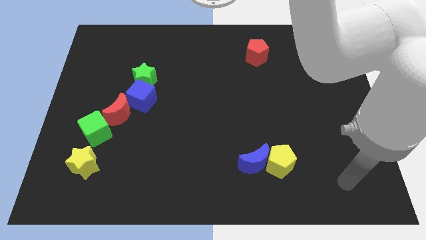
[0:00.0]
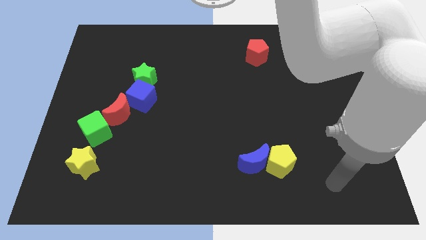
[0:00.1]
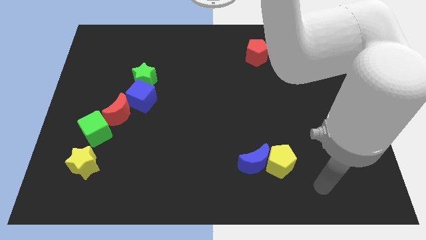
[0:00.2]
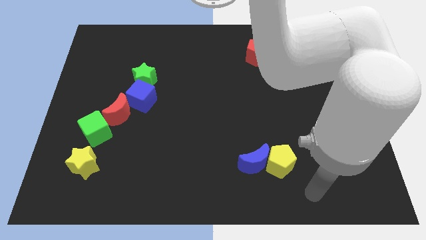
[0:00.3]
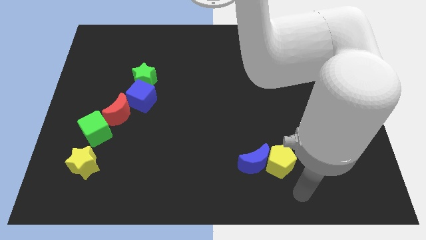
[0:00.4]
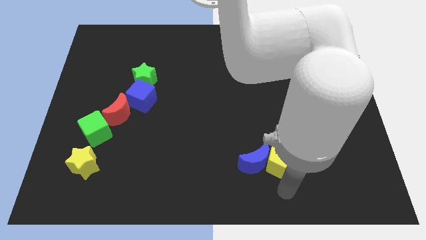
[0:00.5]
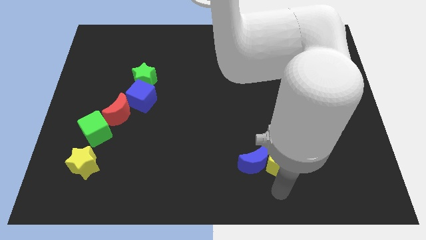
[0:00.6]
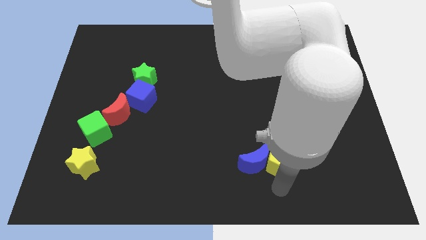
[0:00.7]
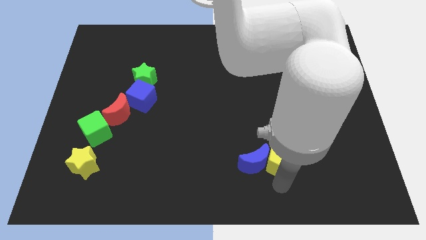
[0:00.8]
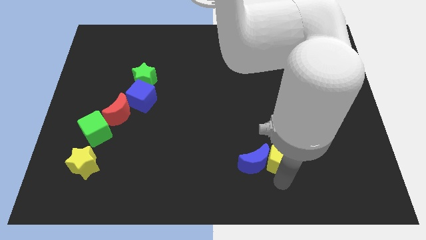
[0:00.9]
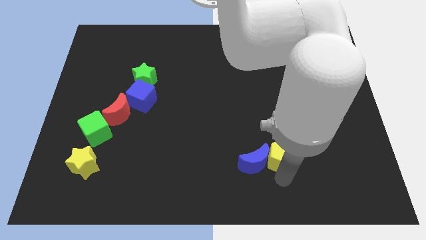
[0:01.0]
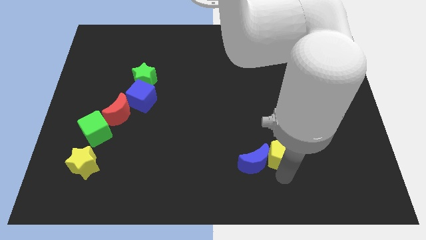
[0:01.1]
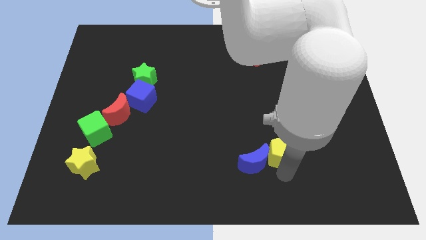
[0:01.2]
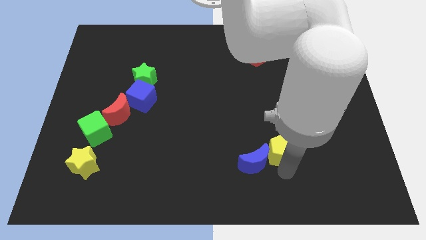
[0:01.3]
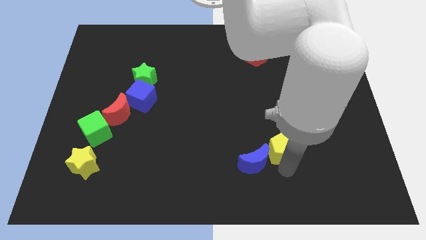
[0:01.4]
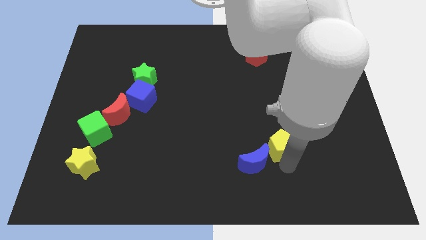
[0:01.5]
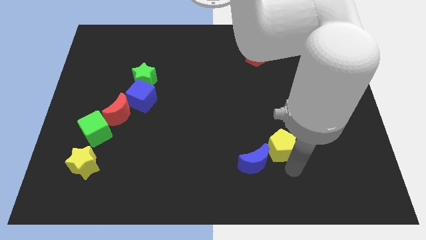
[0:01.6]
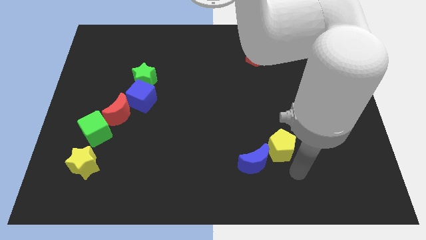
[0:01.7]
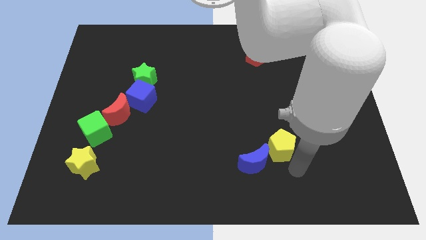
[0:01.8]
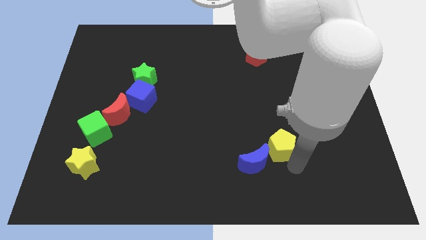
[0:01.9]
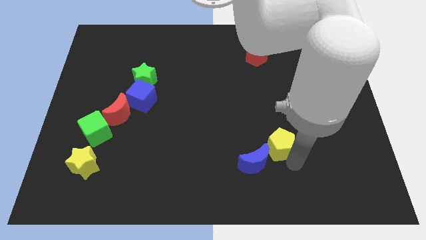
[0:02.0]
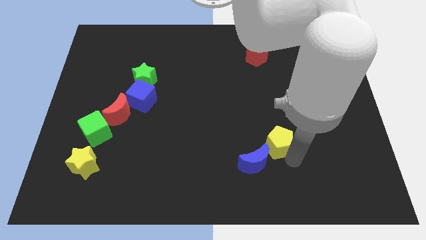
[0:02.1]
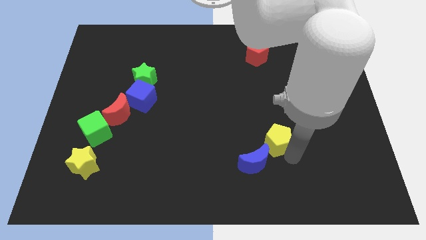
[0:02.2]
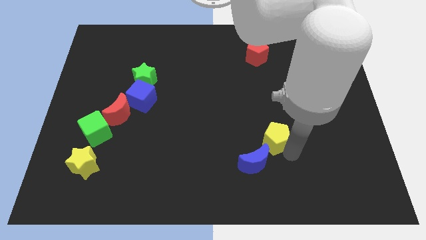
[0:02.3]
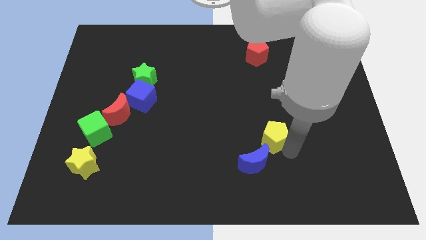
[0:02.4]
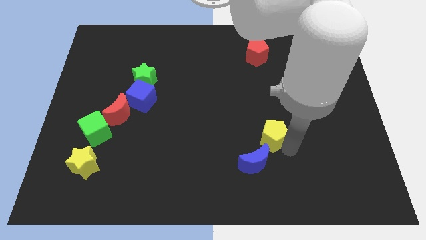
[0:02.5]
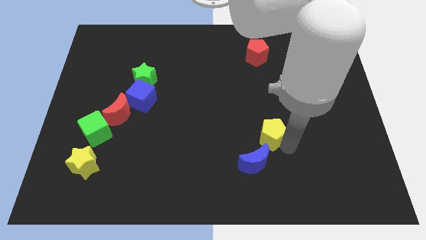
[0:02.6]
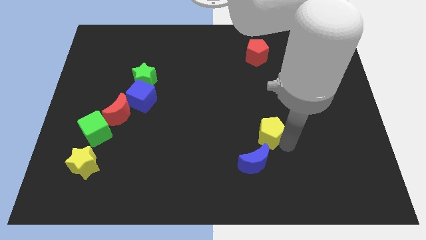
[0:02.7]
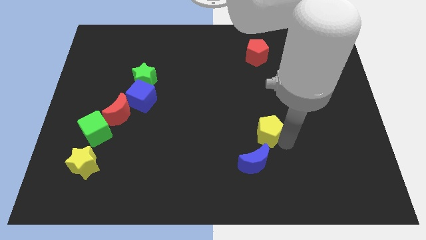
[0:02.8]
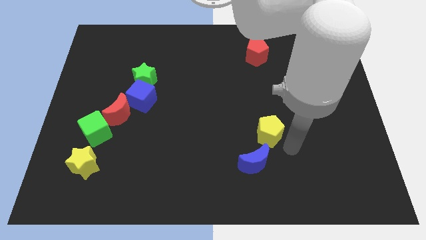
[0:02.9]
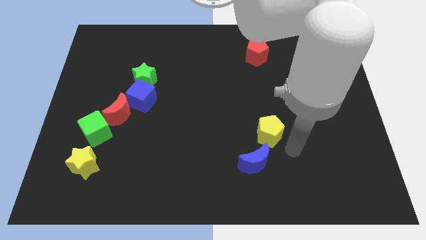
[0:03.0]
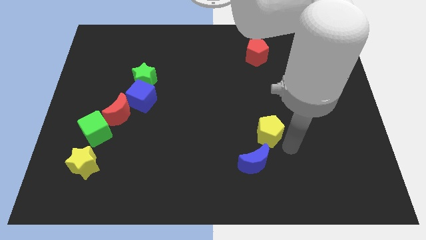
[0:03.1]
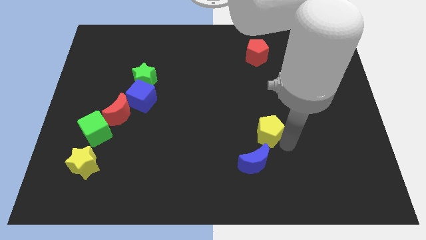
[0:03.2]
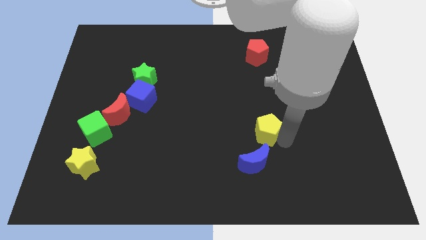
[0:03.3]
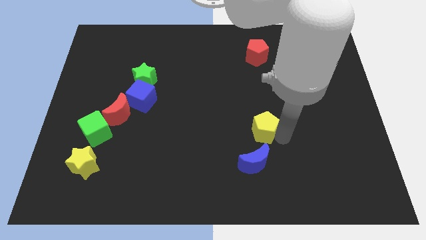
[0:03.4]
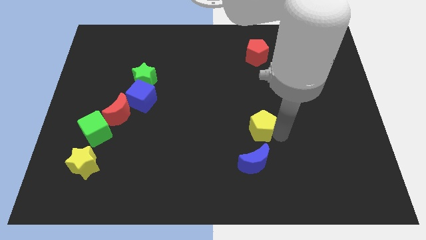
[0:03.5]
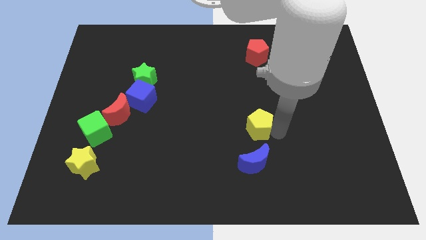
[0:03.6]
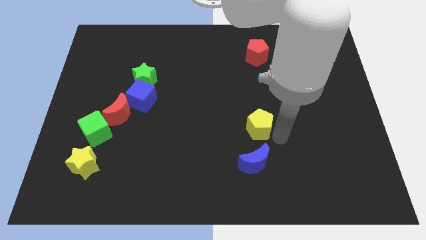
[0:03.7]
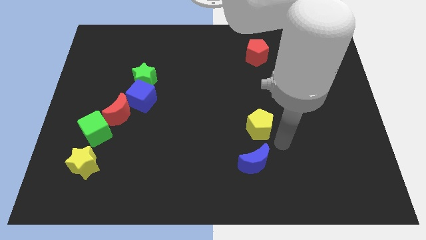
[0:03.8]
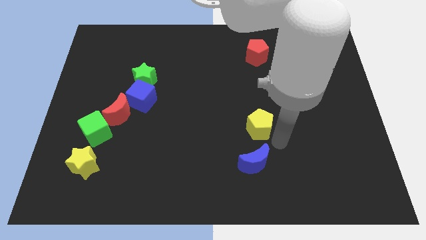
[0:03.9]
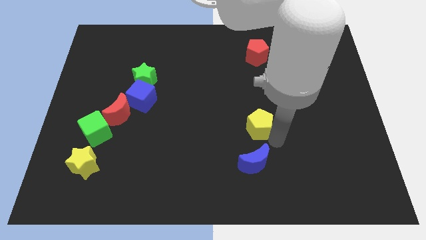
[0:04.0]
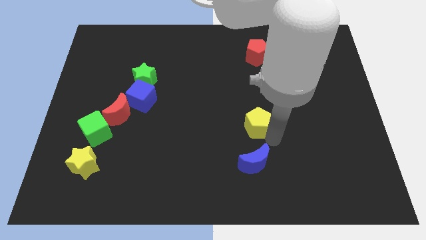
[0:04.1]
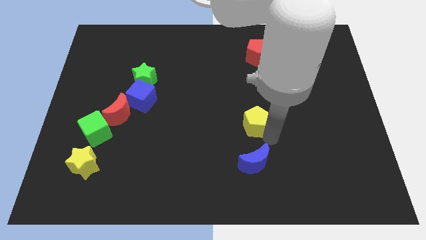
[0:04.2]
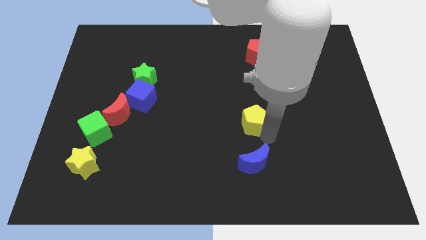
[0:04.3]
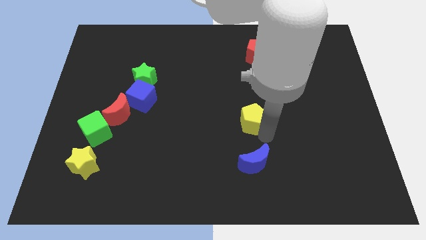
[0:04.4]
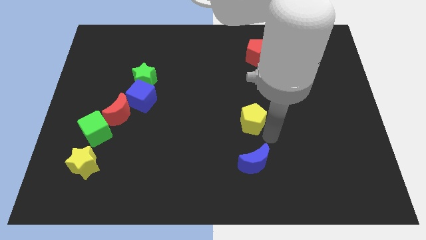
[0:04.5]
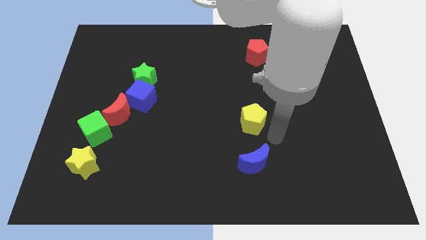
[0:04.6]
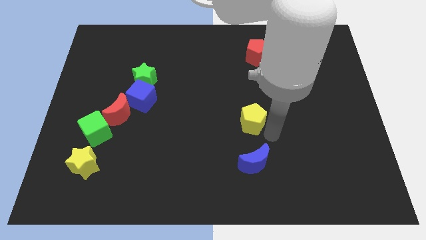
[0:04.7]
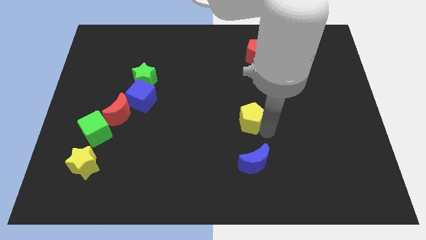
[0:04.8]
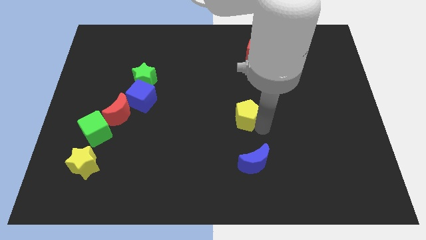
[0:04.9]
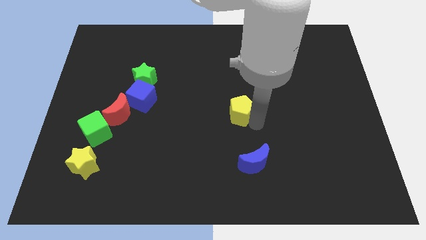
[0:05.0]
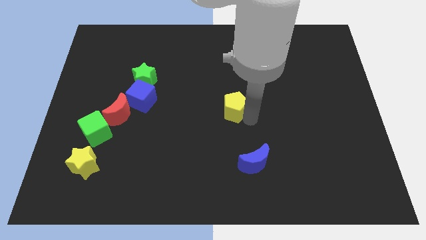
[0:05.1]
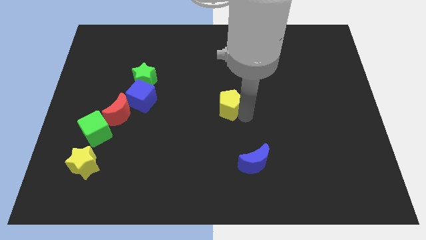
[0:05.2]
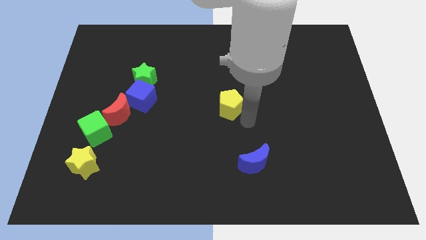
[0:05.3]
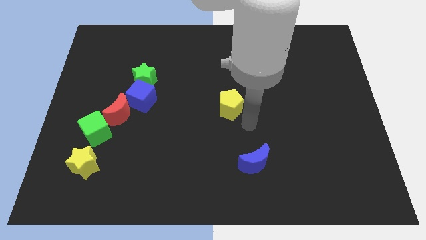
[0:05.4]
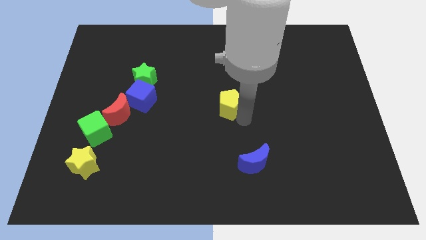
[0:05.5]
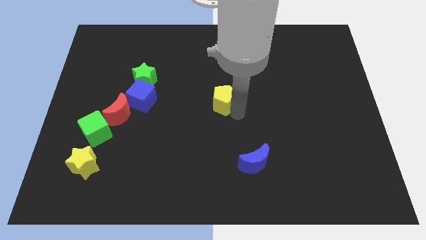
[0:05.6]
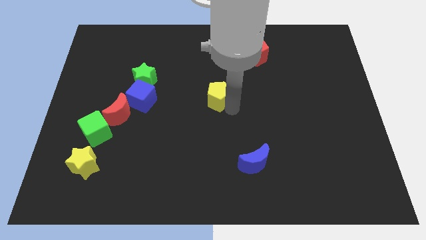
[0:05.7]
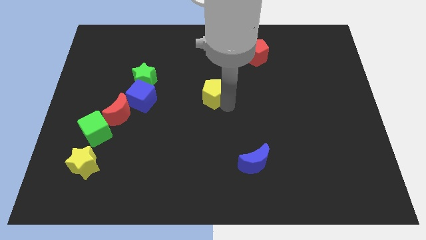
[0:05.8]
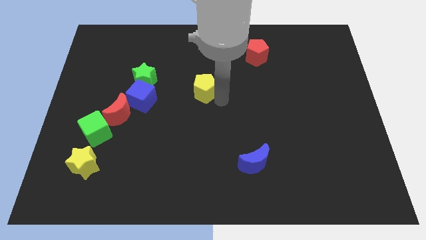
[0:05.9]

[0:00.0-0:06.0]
push the yellow pentagon to the right side of the green star

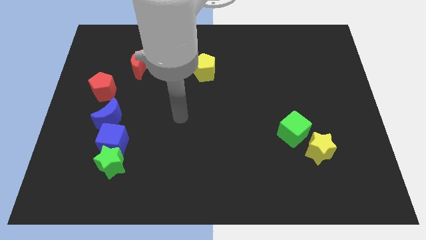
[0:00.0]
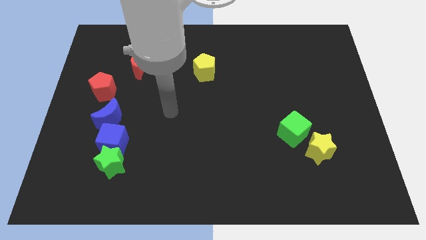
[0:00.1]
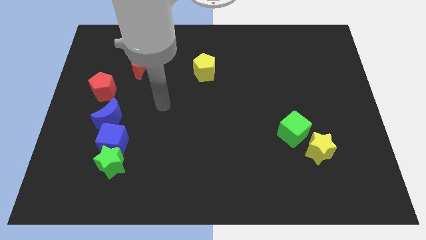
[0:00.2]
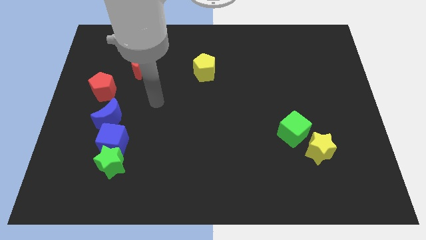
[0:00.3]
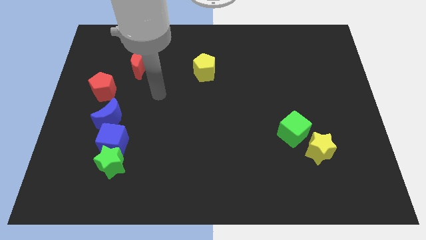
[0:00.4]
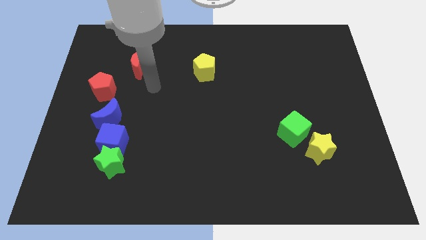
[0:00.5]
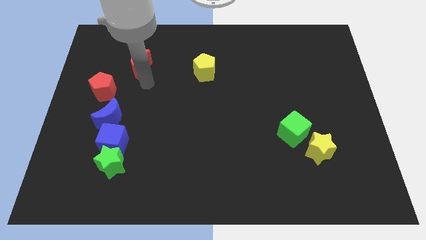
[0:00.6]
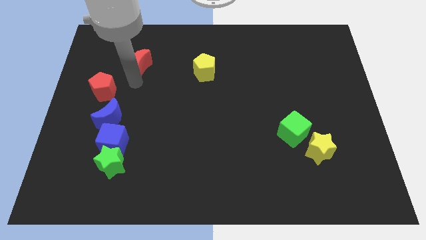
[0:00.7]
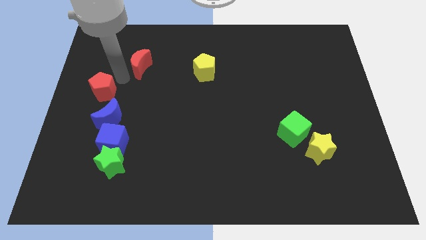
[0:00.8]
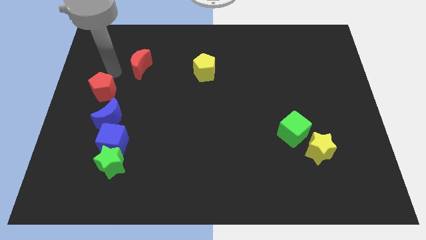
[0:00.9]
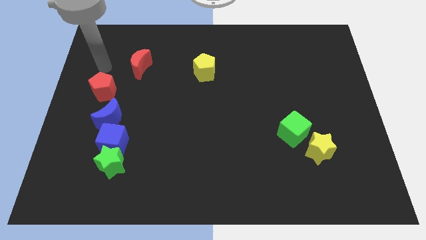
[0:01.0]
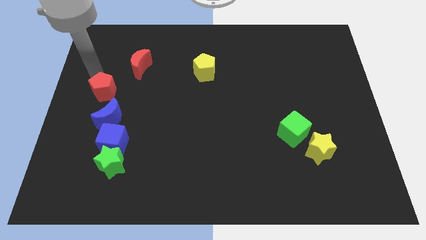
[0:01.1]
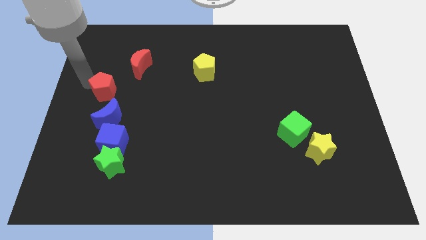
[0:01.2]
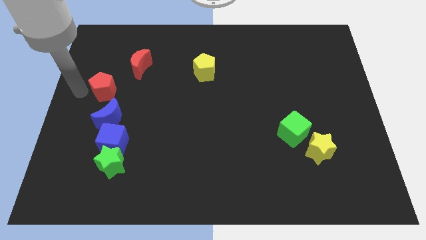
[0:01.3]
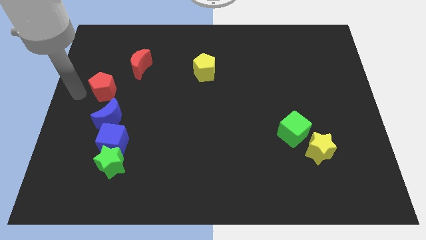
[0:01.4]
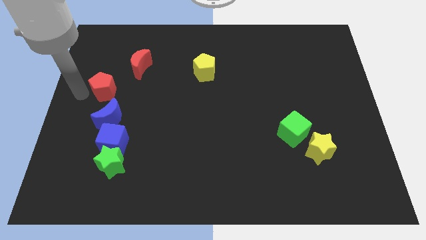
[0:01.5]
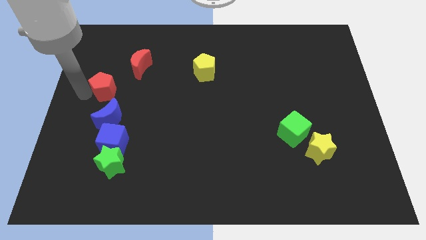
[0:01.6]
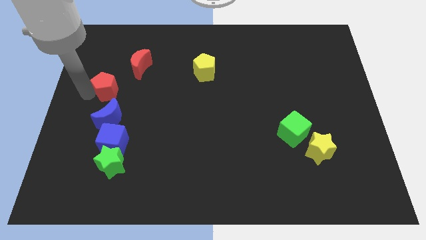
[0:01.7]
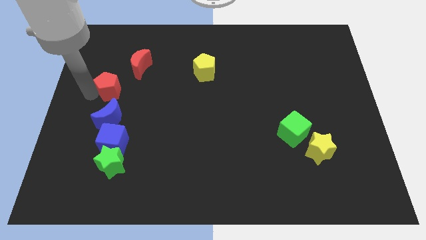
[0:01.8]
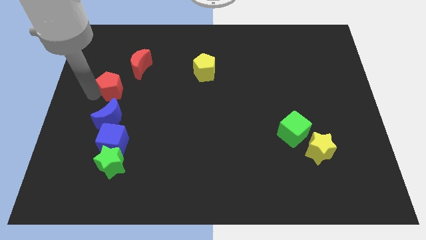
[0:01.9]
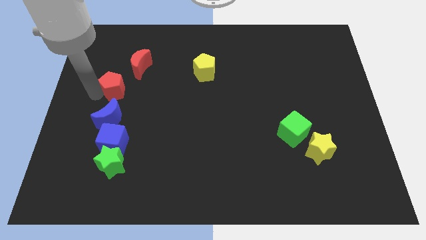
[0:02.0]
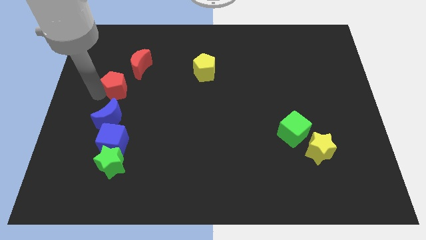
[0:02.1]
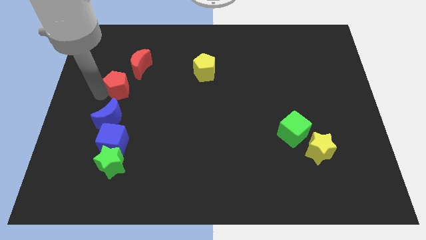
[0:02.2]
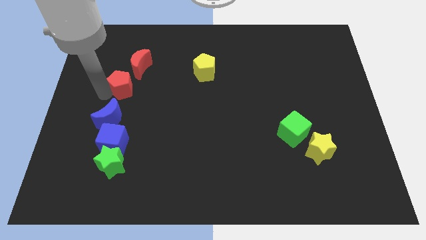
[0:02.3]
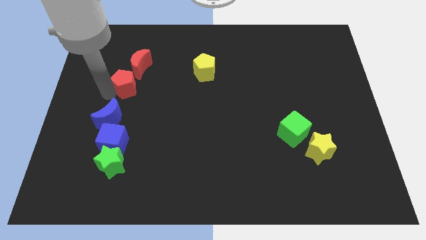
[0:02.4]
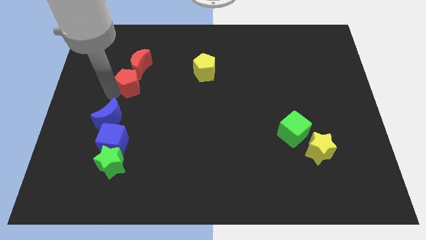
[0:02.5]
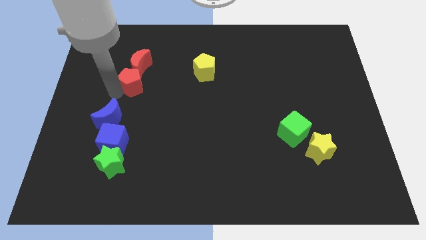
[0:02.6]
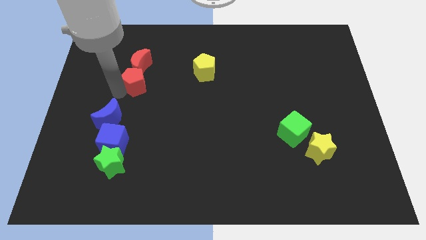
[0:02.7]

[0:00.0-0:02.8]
put the red pentagon to the bottom right of the red moon
